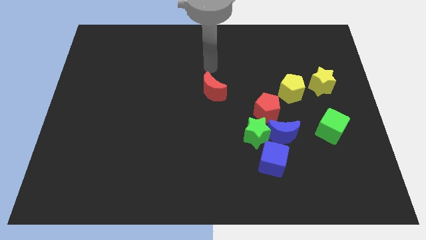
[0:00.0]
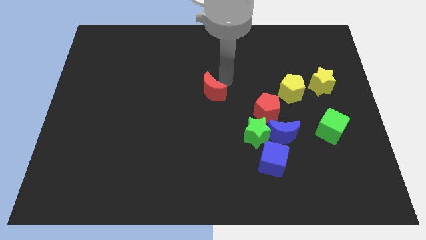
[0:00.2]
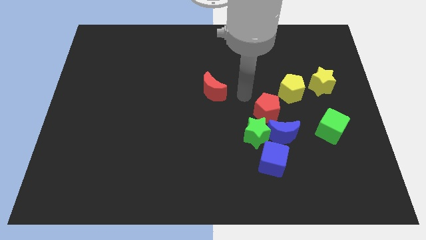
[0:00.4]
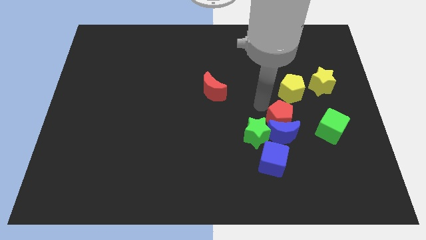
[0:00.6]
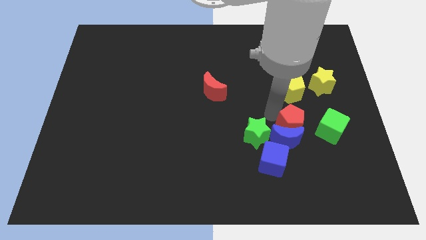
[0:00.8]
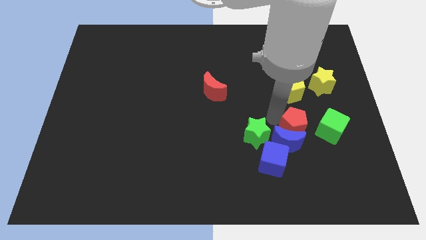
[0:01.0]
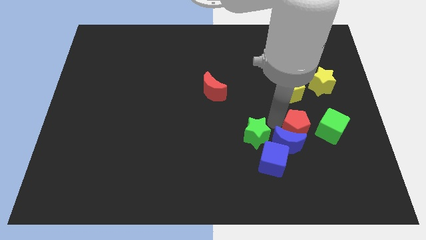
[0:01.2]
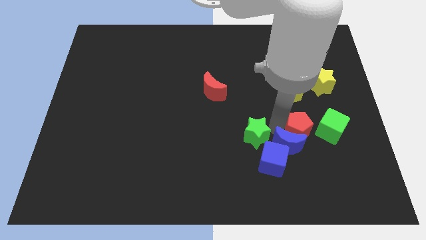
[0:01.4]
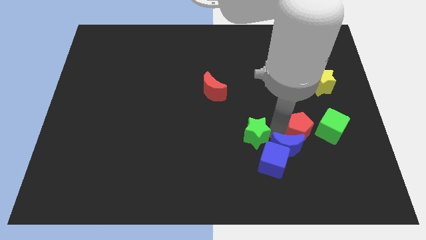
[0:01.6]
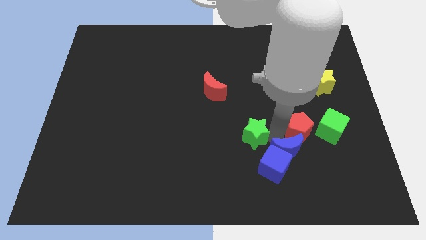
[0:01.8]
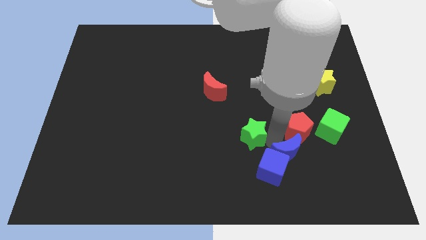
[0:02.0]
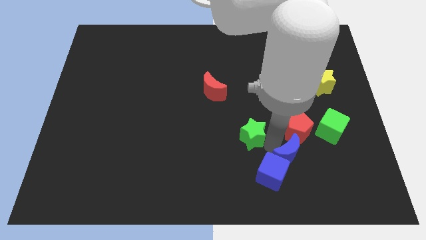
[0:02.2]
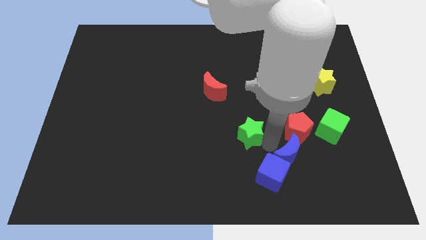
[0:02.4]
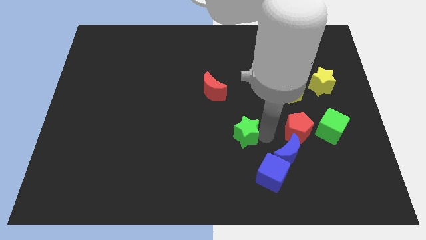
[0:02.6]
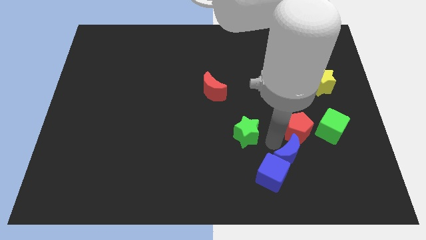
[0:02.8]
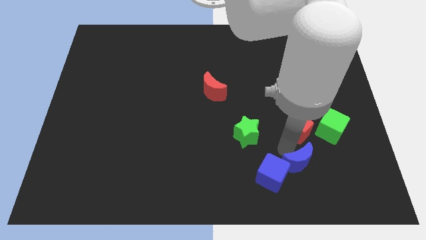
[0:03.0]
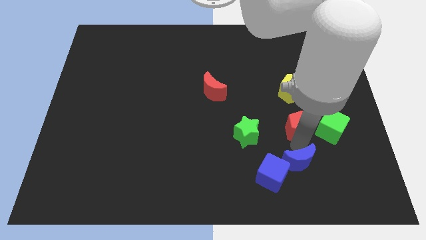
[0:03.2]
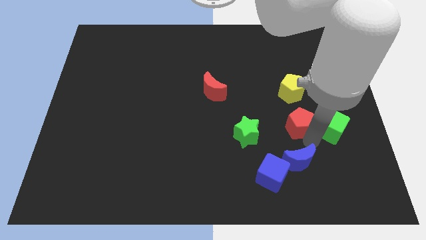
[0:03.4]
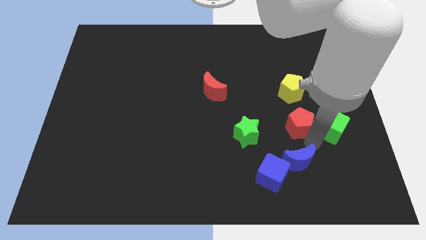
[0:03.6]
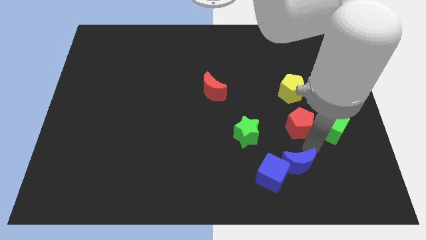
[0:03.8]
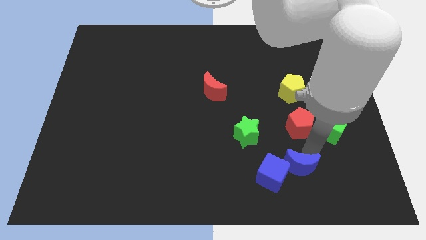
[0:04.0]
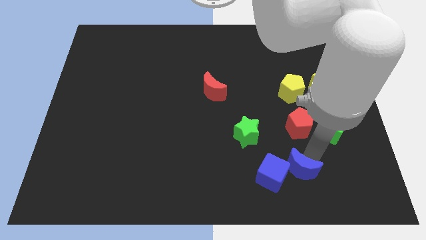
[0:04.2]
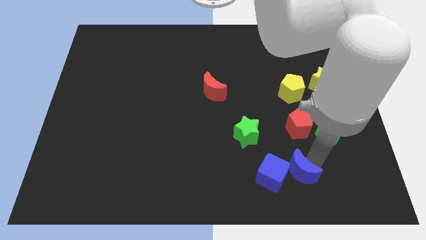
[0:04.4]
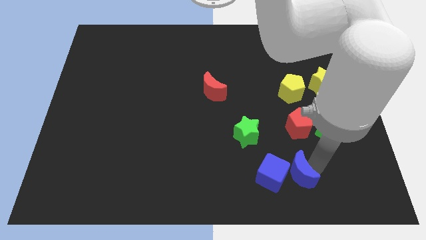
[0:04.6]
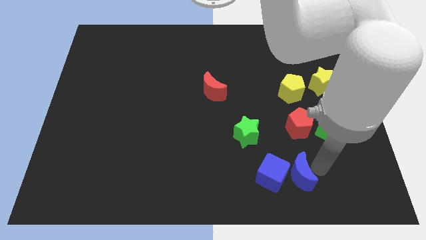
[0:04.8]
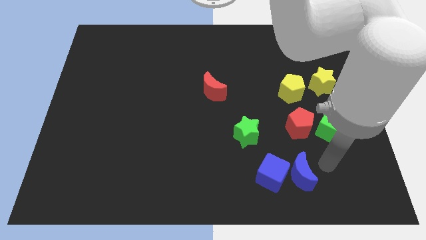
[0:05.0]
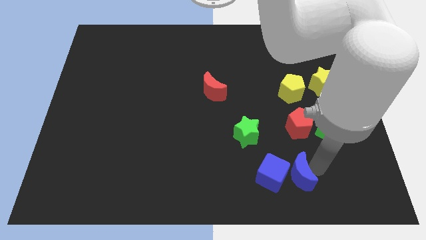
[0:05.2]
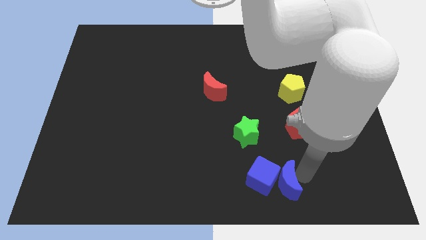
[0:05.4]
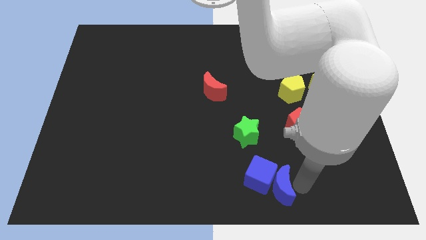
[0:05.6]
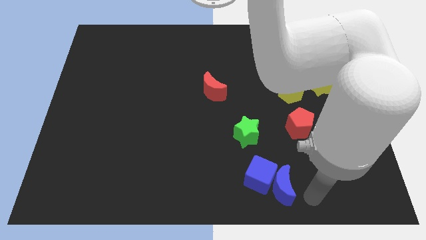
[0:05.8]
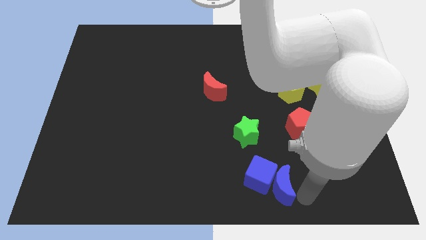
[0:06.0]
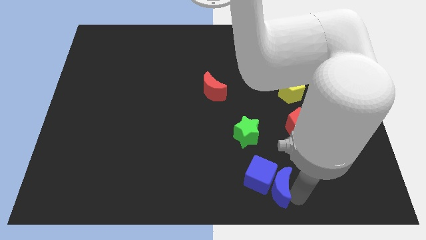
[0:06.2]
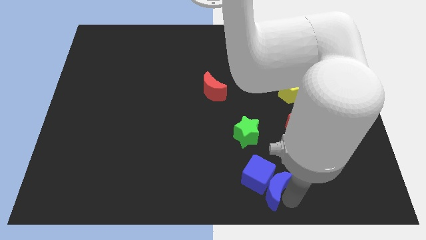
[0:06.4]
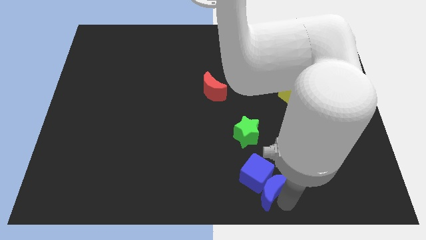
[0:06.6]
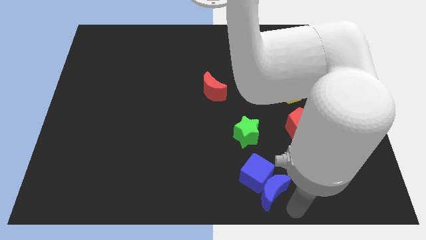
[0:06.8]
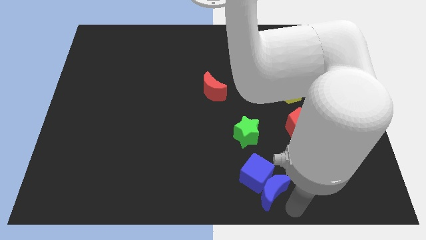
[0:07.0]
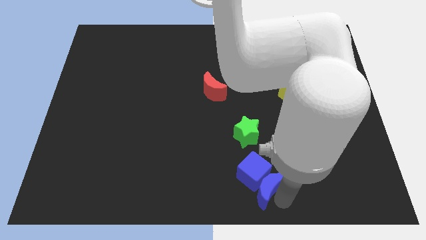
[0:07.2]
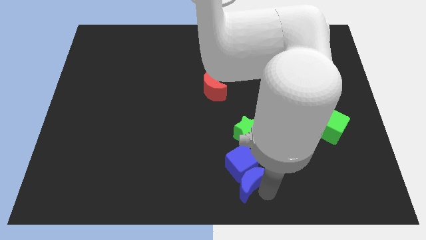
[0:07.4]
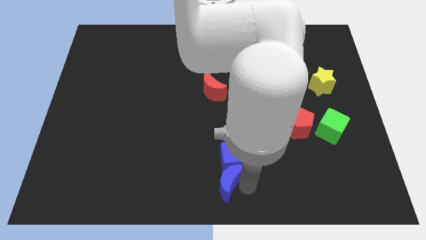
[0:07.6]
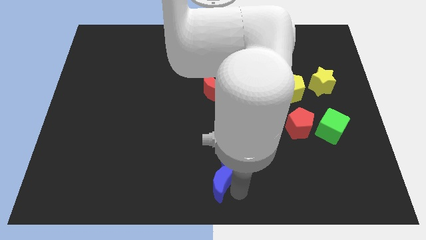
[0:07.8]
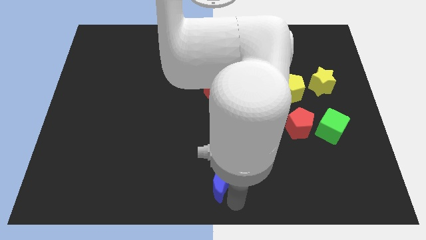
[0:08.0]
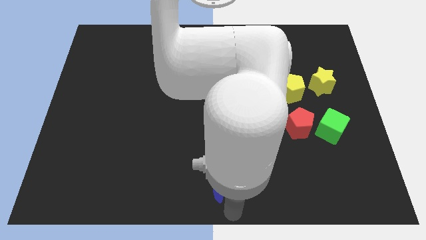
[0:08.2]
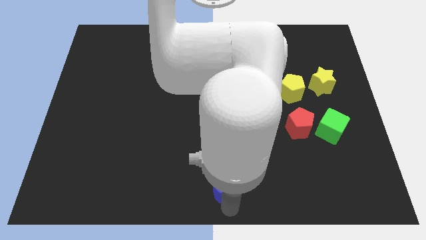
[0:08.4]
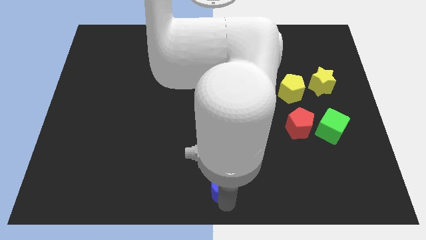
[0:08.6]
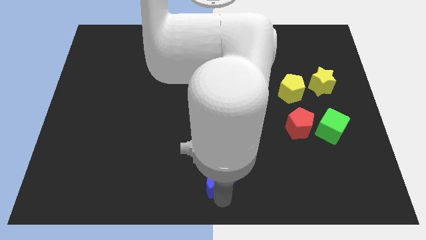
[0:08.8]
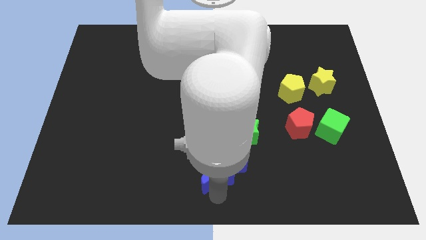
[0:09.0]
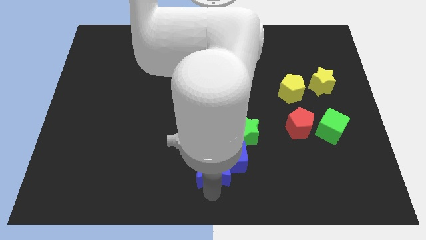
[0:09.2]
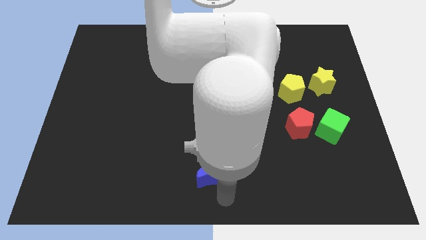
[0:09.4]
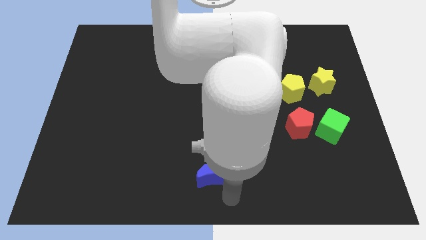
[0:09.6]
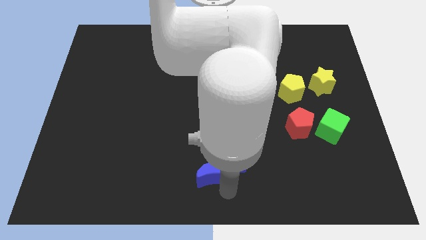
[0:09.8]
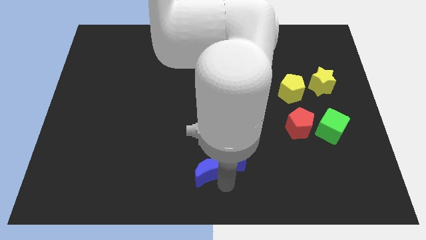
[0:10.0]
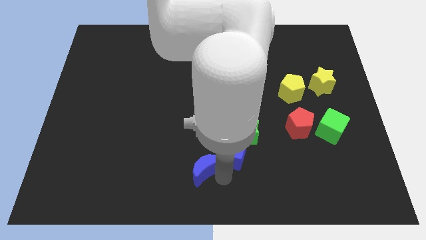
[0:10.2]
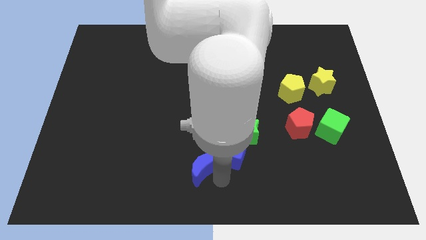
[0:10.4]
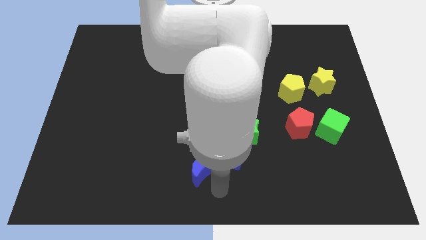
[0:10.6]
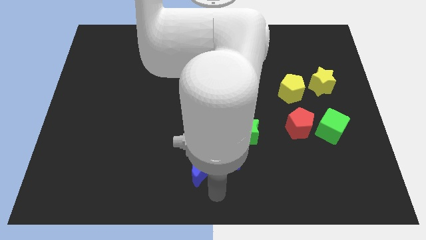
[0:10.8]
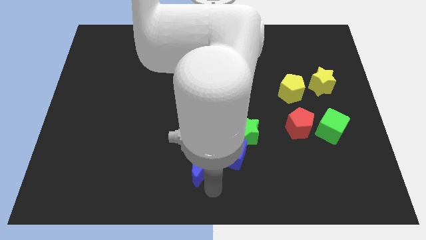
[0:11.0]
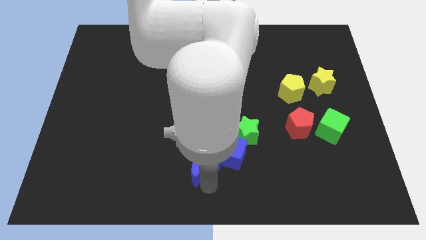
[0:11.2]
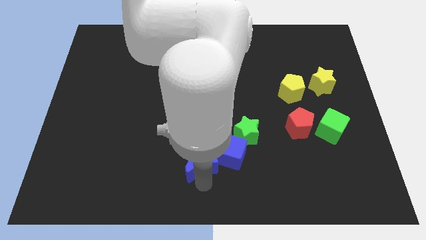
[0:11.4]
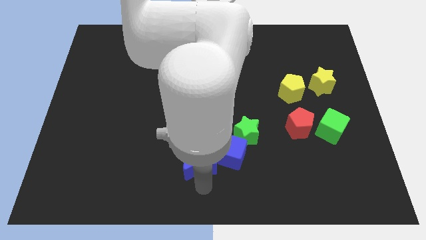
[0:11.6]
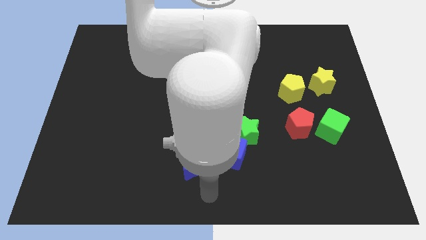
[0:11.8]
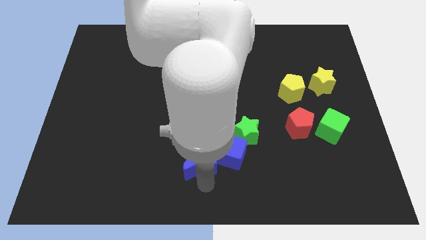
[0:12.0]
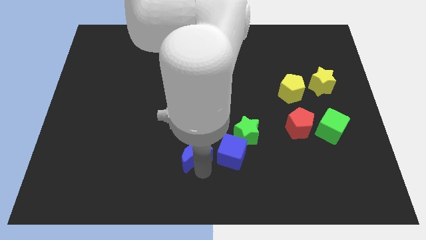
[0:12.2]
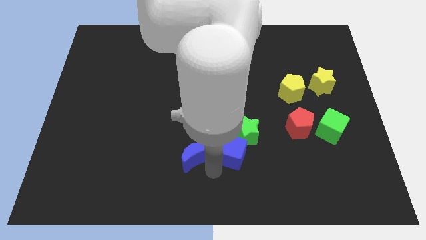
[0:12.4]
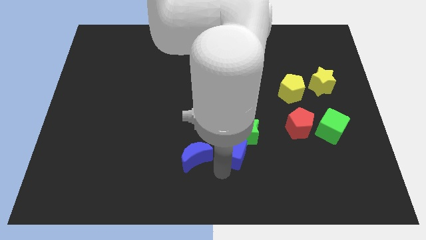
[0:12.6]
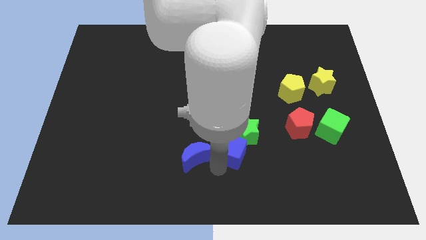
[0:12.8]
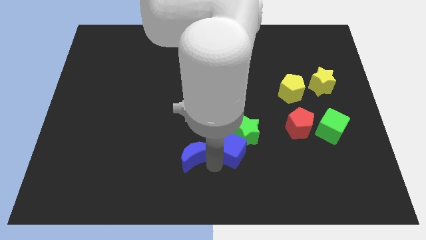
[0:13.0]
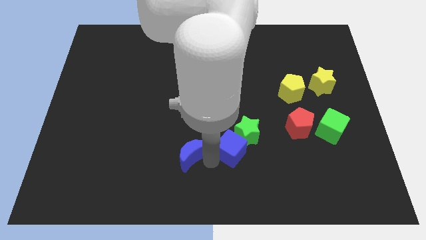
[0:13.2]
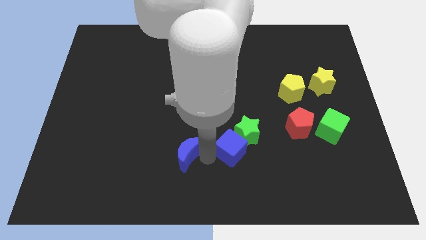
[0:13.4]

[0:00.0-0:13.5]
slide the blue moon to the left

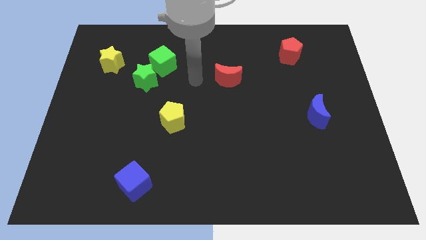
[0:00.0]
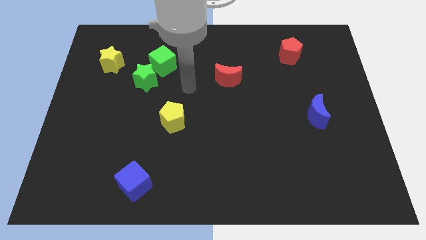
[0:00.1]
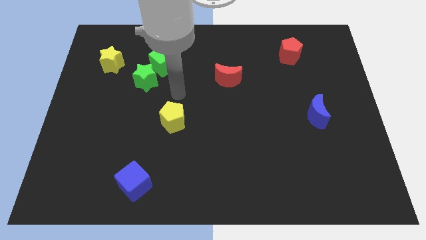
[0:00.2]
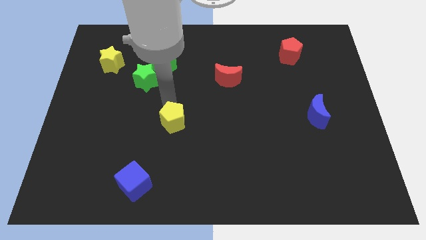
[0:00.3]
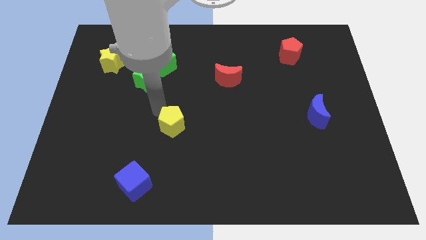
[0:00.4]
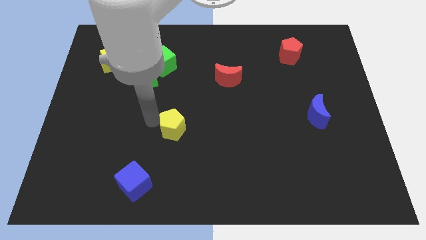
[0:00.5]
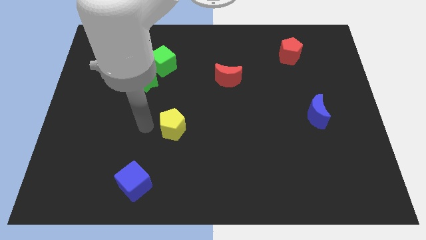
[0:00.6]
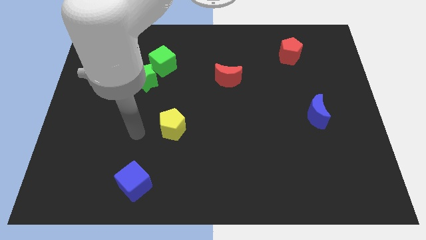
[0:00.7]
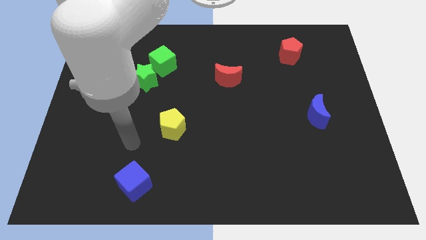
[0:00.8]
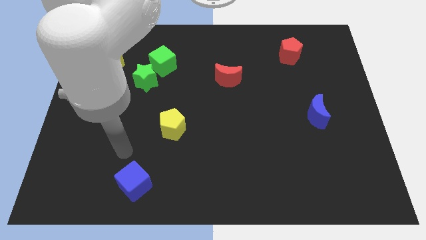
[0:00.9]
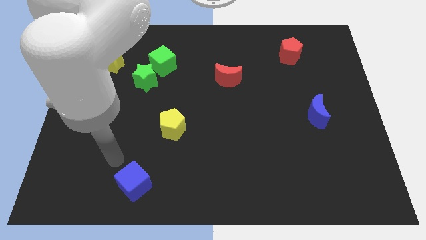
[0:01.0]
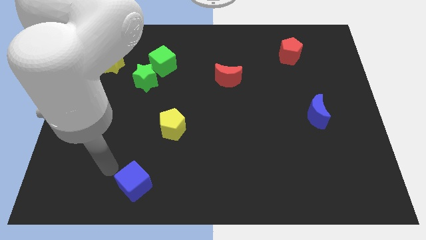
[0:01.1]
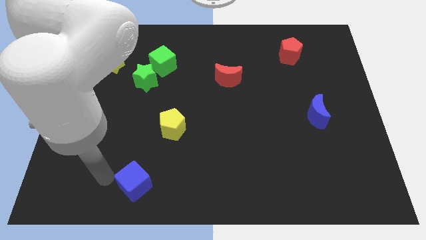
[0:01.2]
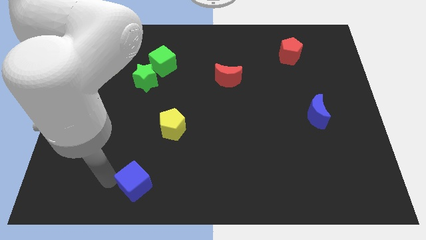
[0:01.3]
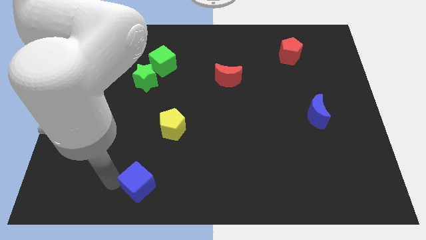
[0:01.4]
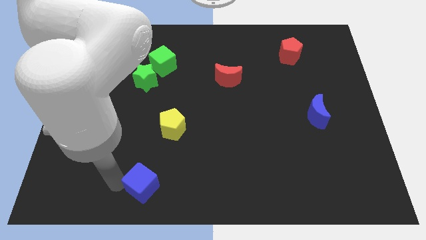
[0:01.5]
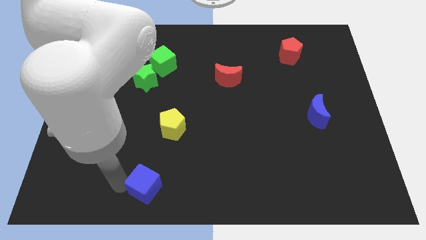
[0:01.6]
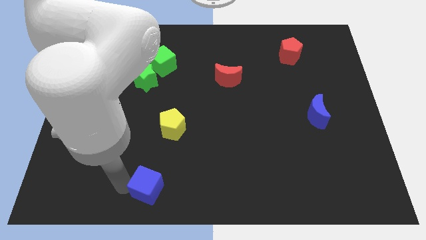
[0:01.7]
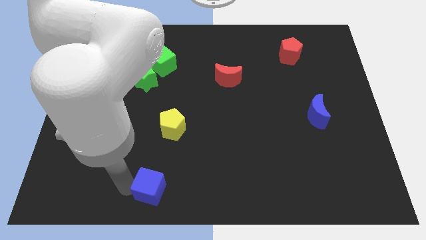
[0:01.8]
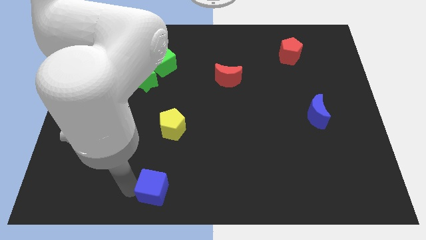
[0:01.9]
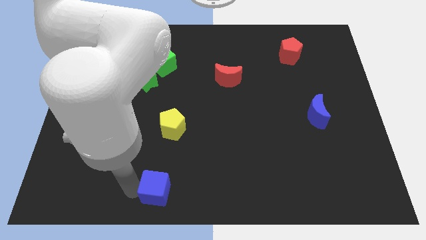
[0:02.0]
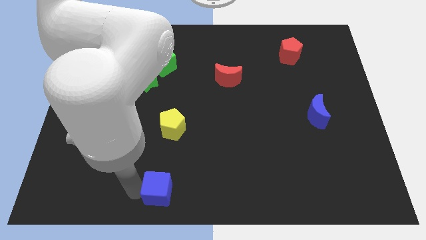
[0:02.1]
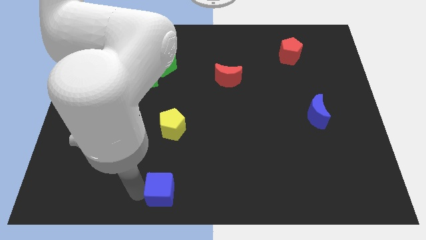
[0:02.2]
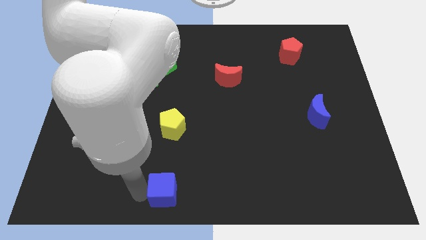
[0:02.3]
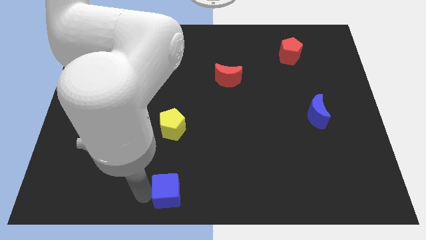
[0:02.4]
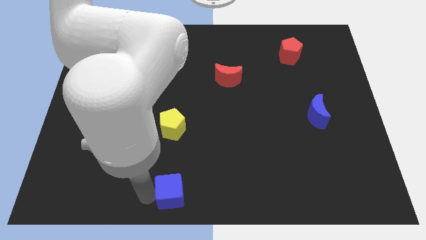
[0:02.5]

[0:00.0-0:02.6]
move the blue cube a little right
